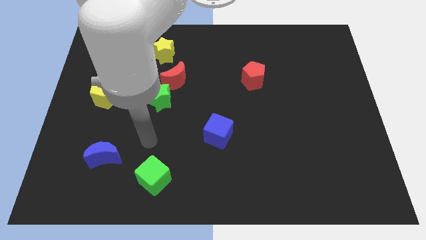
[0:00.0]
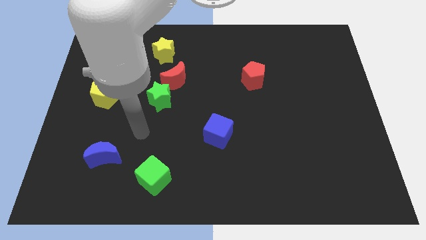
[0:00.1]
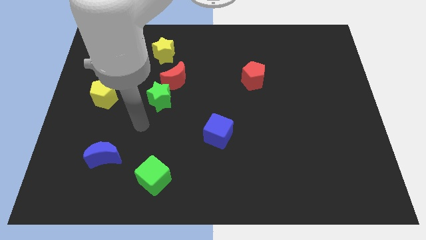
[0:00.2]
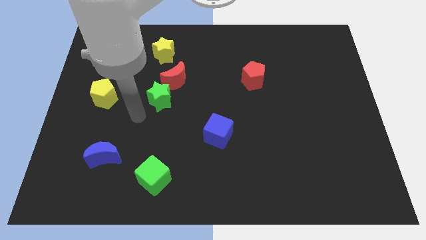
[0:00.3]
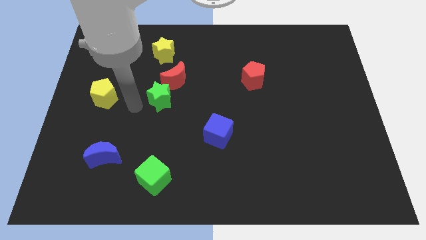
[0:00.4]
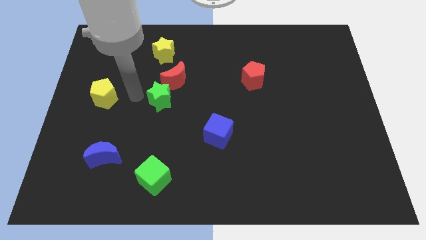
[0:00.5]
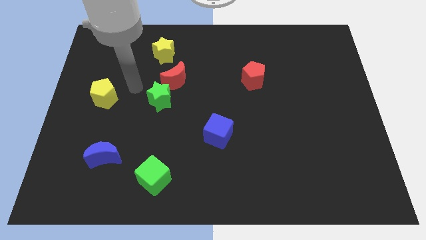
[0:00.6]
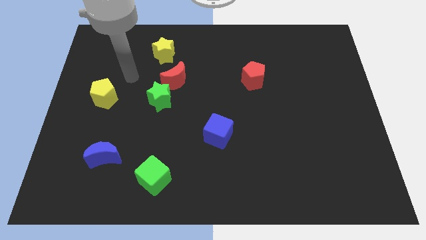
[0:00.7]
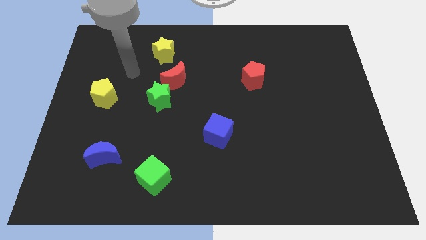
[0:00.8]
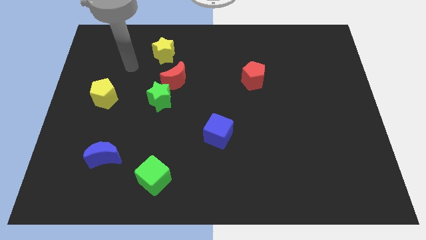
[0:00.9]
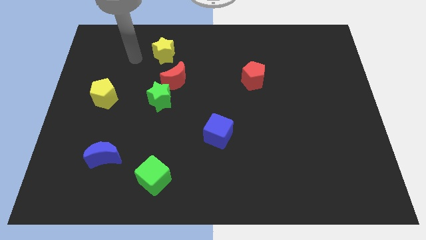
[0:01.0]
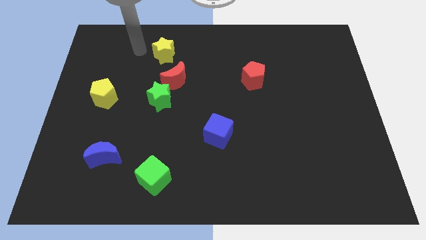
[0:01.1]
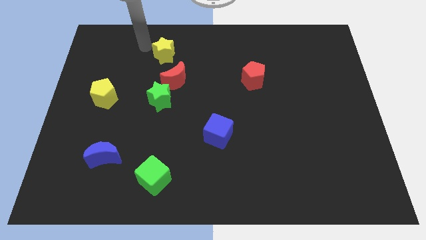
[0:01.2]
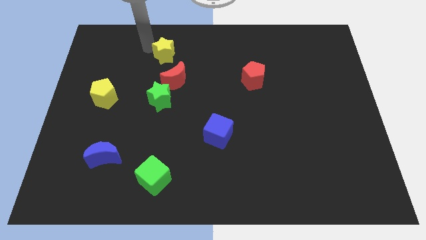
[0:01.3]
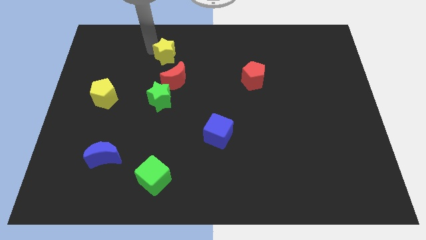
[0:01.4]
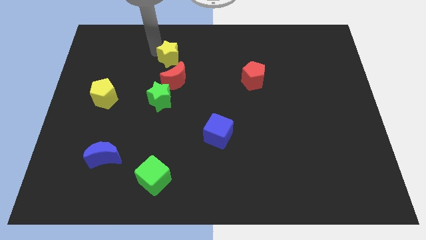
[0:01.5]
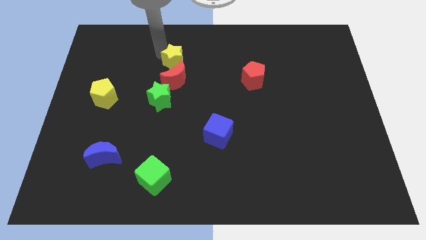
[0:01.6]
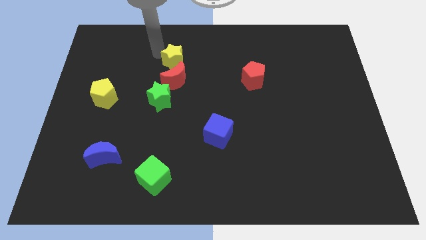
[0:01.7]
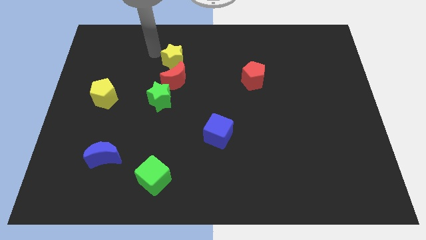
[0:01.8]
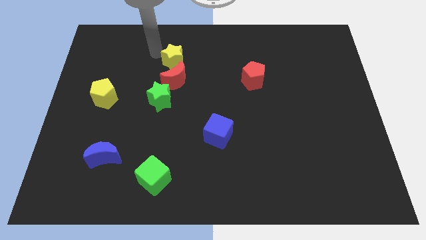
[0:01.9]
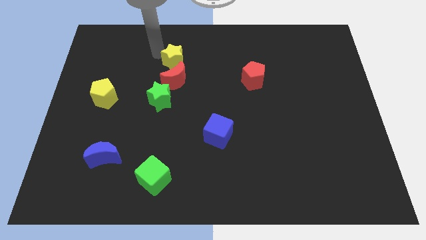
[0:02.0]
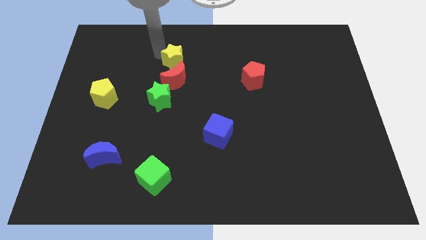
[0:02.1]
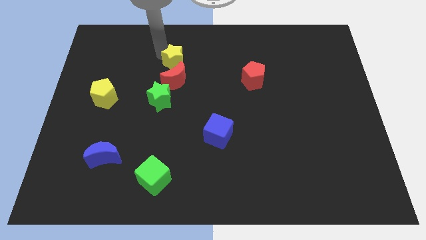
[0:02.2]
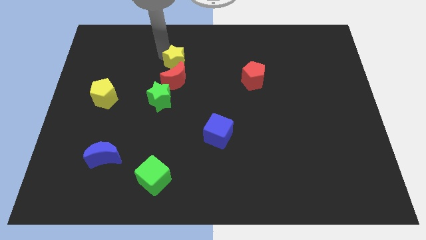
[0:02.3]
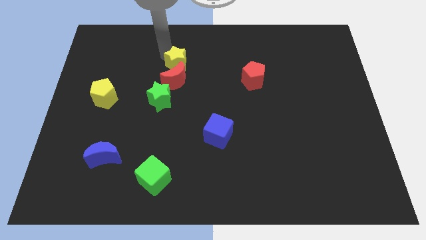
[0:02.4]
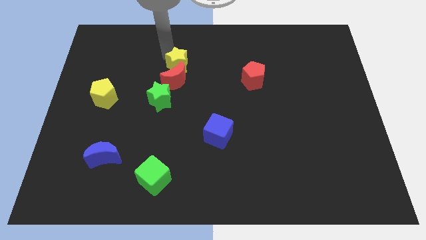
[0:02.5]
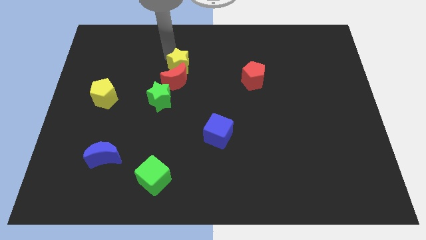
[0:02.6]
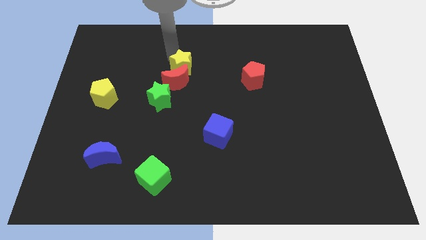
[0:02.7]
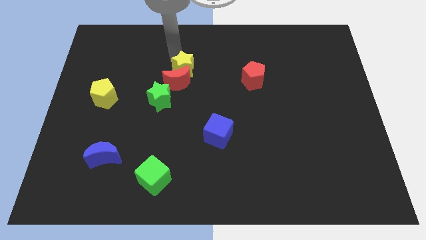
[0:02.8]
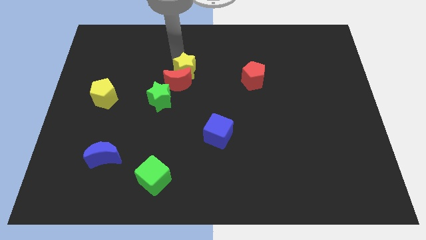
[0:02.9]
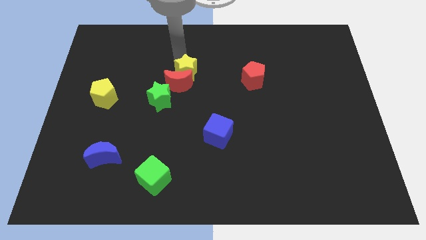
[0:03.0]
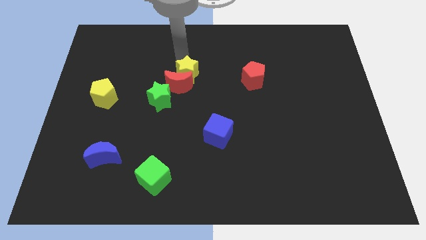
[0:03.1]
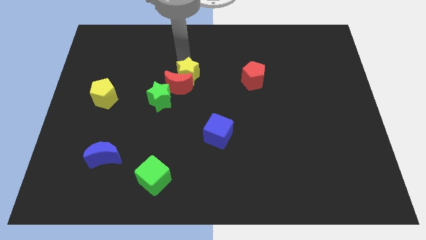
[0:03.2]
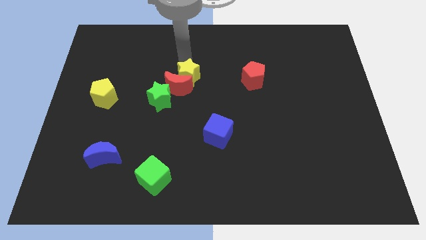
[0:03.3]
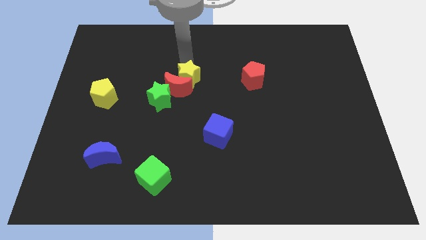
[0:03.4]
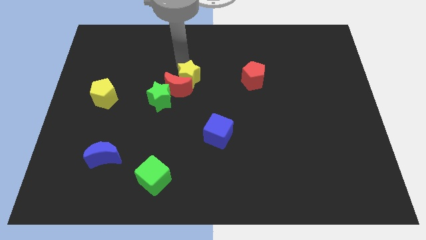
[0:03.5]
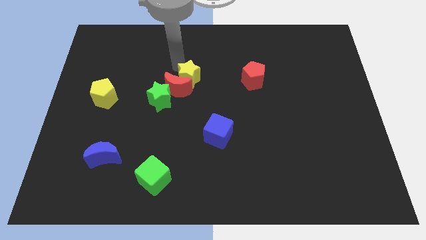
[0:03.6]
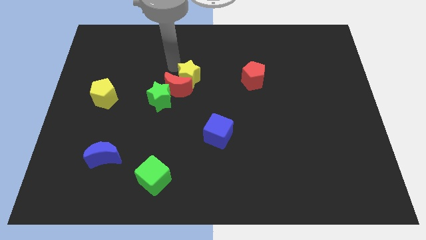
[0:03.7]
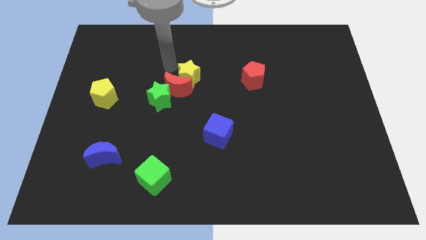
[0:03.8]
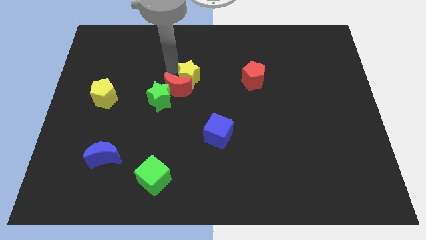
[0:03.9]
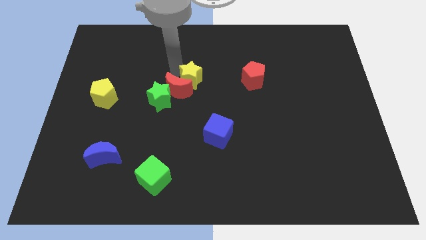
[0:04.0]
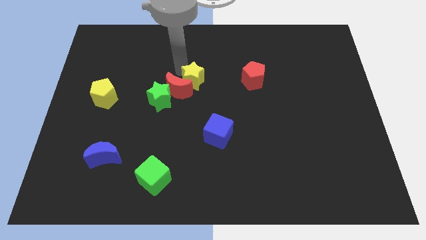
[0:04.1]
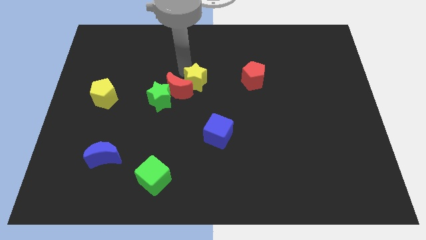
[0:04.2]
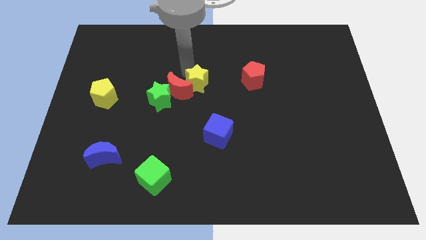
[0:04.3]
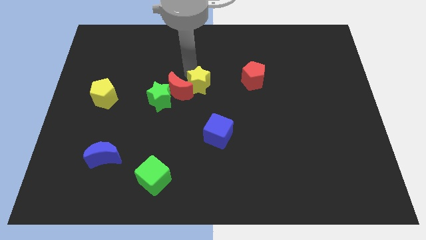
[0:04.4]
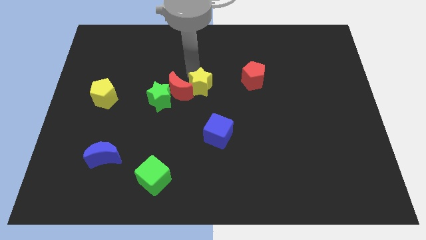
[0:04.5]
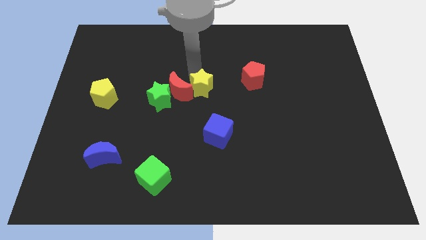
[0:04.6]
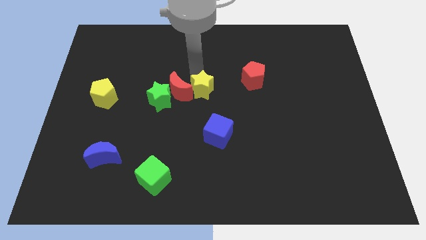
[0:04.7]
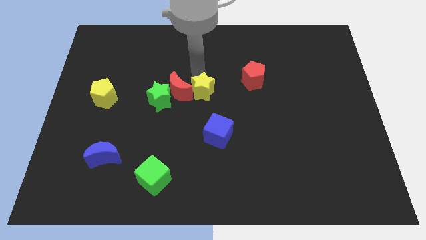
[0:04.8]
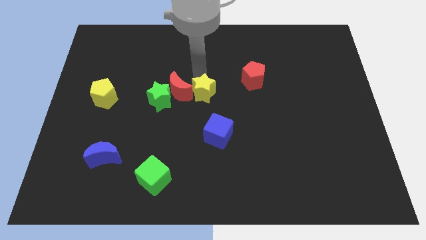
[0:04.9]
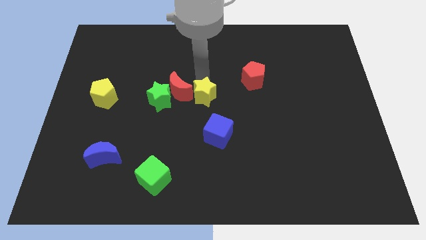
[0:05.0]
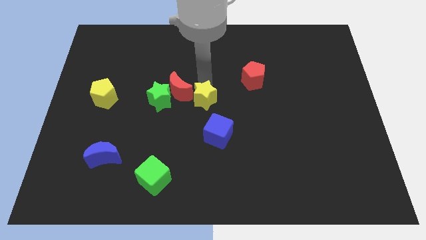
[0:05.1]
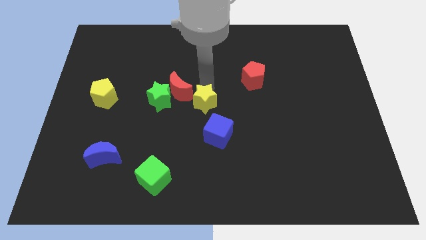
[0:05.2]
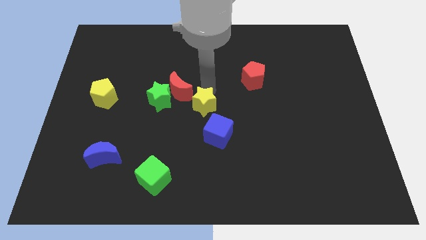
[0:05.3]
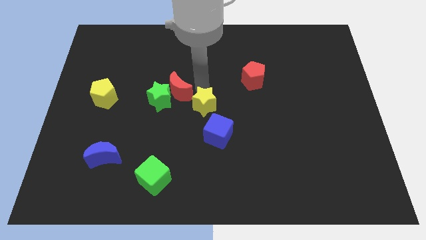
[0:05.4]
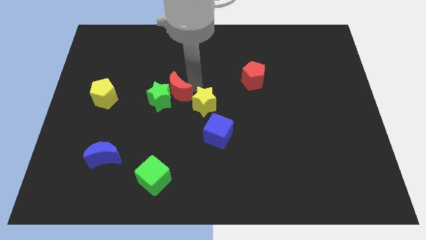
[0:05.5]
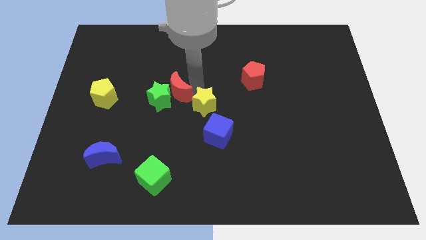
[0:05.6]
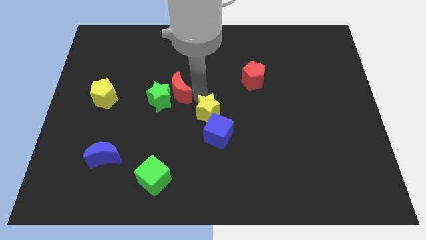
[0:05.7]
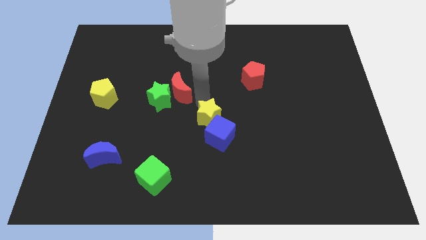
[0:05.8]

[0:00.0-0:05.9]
slide the yellow star to the blue cube
